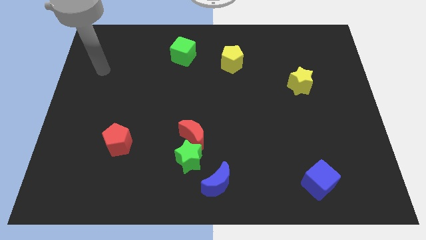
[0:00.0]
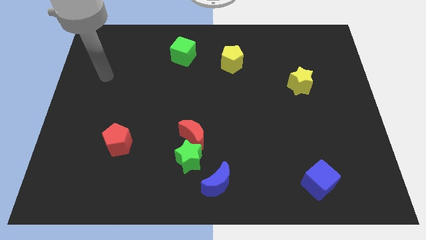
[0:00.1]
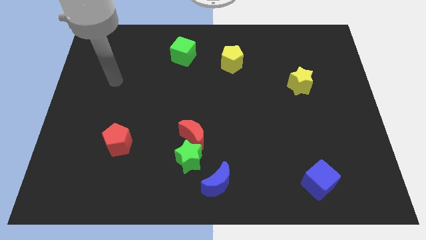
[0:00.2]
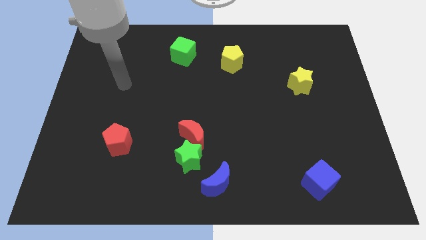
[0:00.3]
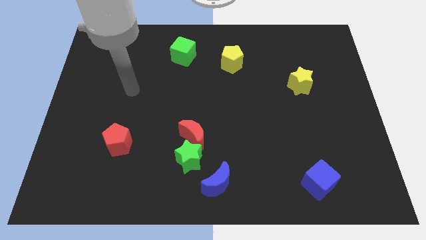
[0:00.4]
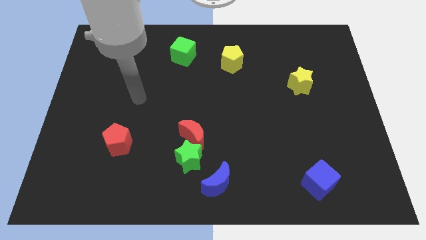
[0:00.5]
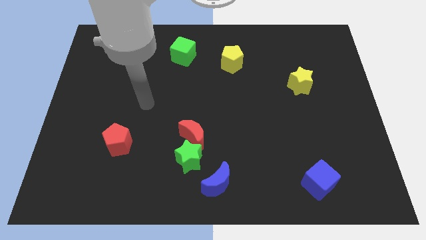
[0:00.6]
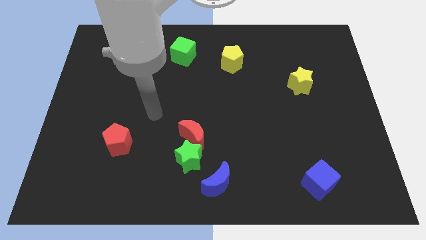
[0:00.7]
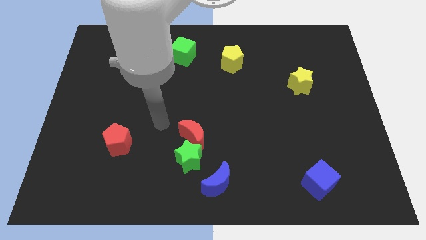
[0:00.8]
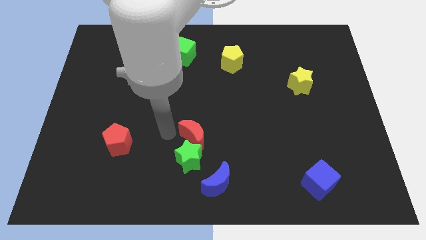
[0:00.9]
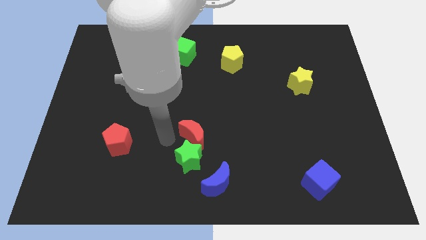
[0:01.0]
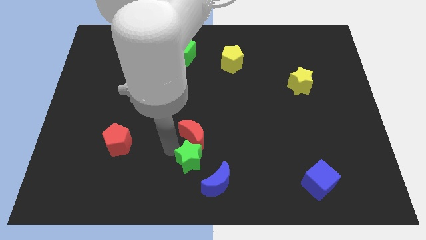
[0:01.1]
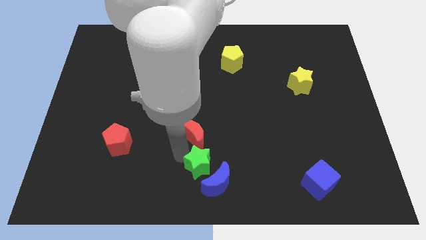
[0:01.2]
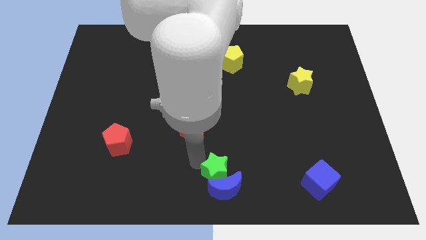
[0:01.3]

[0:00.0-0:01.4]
pull the red moon apart from the green star

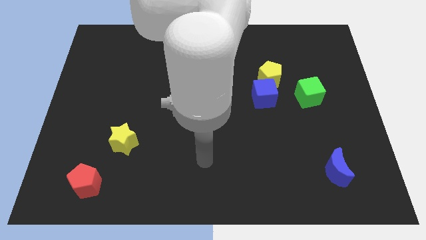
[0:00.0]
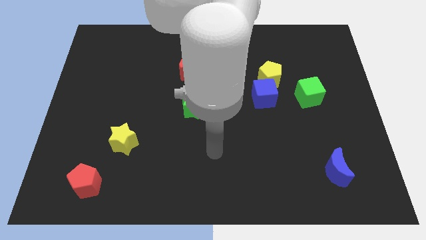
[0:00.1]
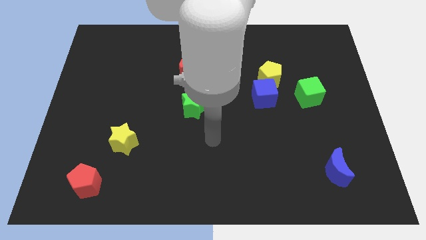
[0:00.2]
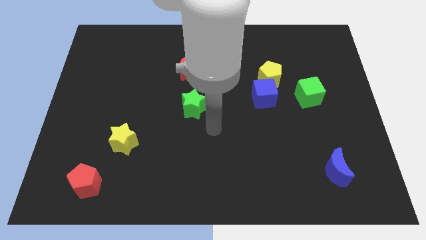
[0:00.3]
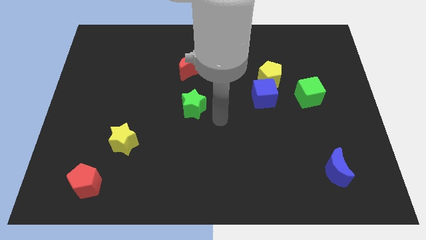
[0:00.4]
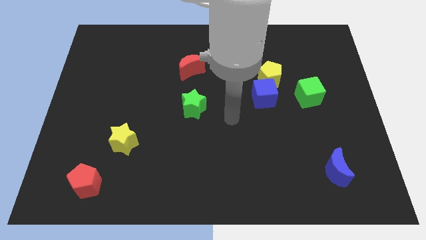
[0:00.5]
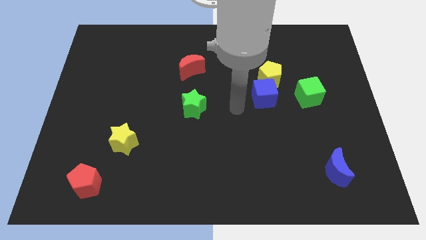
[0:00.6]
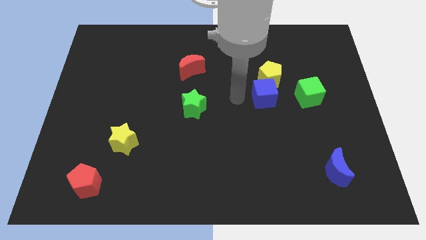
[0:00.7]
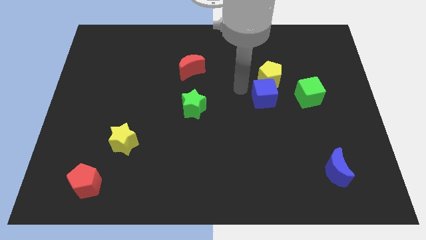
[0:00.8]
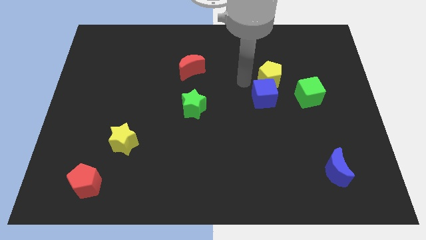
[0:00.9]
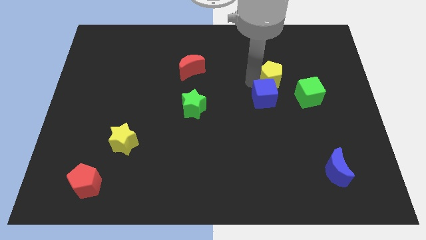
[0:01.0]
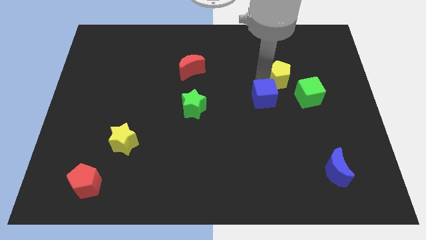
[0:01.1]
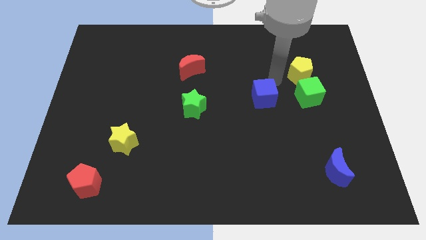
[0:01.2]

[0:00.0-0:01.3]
move the blue cube away from the yellow pentagon

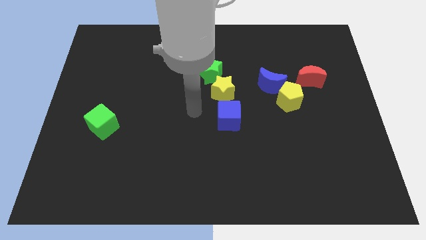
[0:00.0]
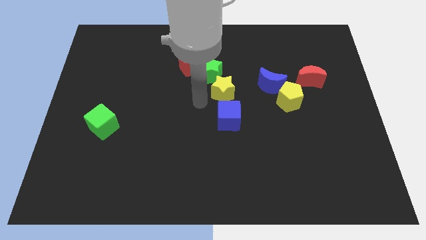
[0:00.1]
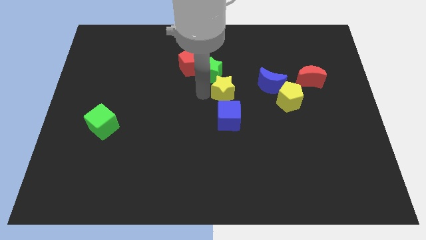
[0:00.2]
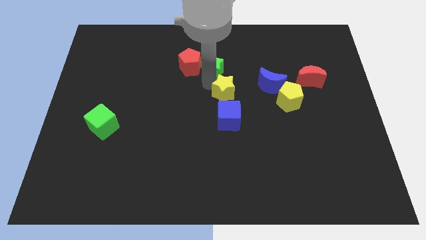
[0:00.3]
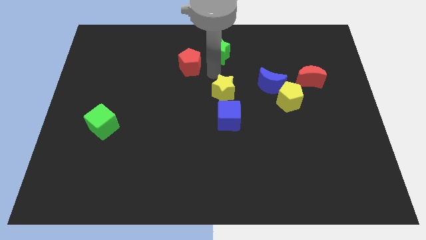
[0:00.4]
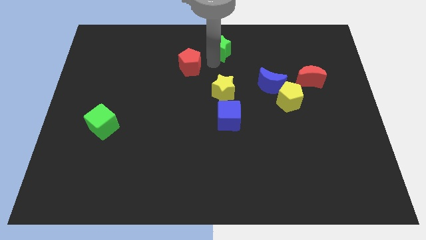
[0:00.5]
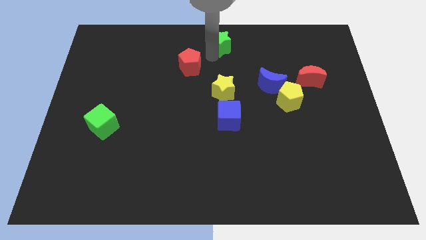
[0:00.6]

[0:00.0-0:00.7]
separate the red pentagon from the green star

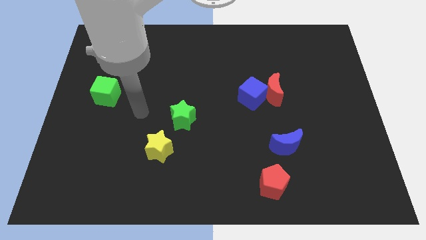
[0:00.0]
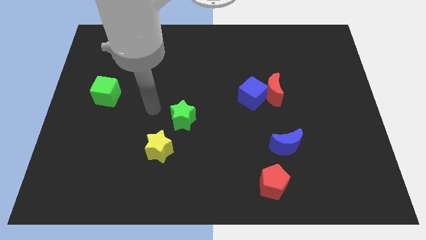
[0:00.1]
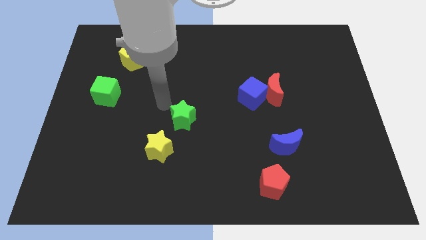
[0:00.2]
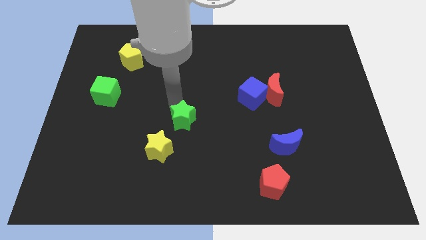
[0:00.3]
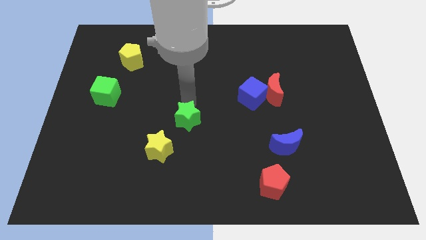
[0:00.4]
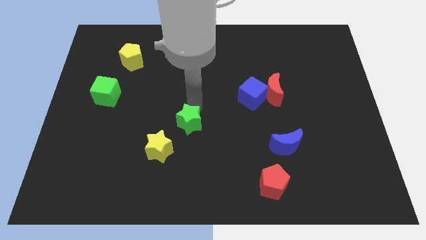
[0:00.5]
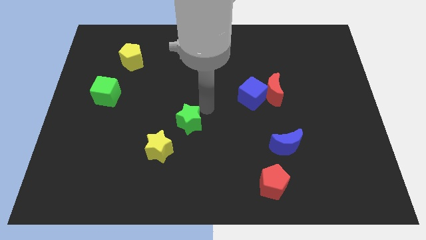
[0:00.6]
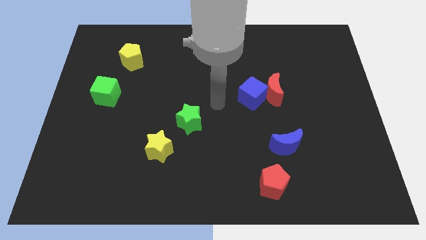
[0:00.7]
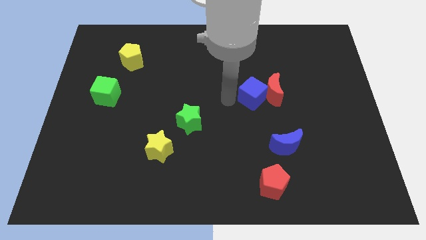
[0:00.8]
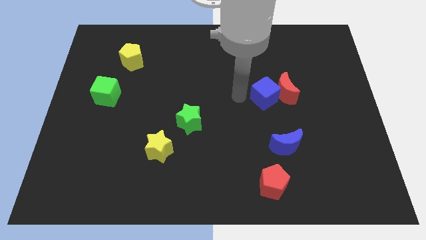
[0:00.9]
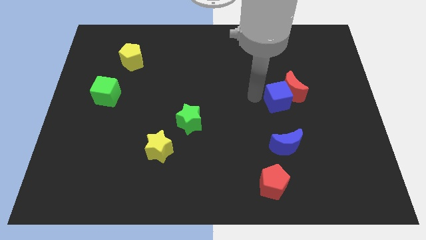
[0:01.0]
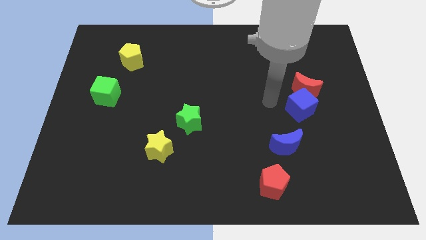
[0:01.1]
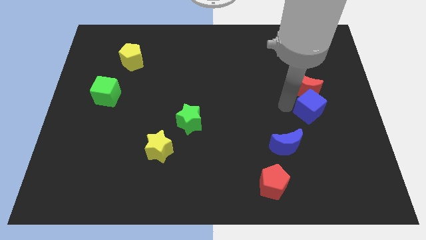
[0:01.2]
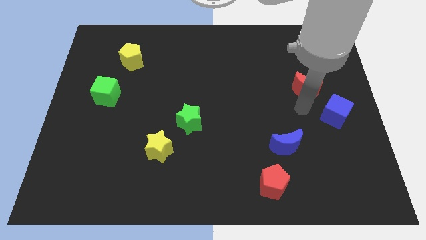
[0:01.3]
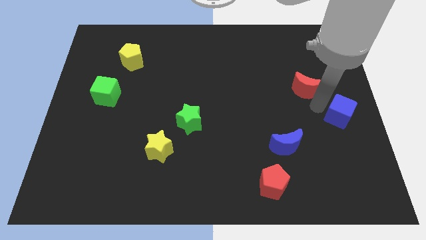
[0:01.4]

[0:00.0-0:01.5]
separate the red moon from the blue cube

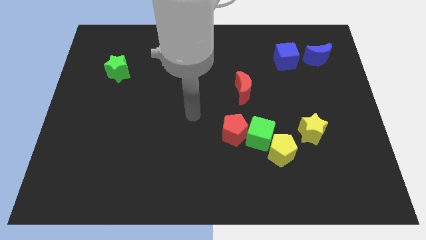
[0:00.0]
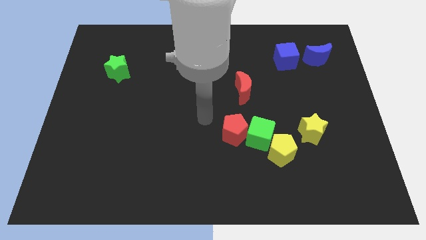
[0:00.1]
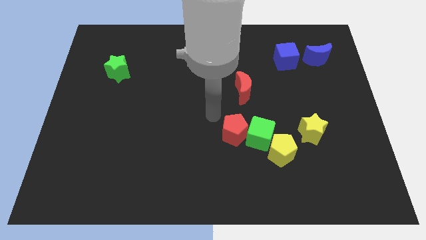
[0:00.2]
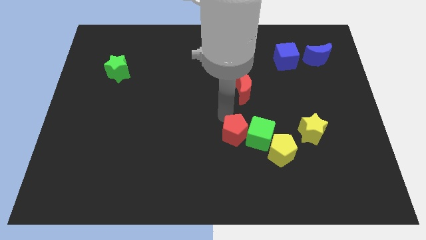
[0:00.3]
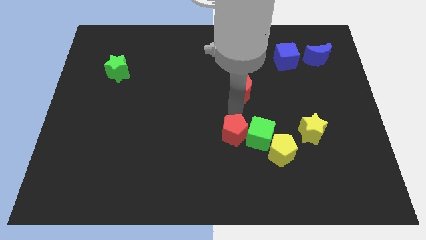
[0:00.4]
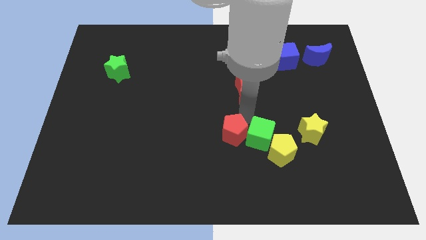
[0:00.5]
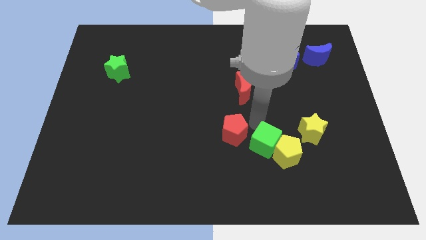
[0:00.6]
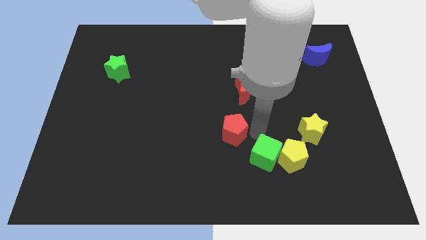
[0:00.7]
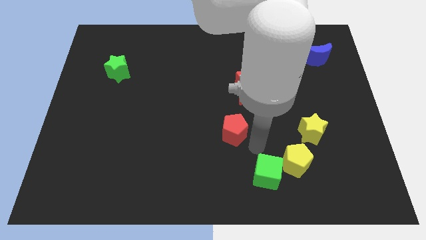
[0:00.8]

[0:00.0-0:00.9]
separate the red pentagon from the green cube

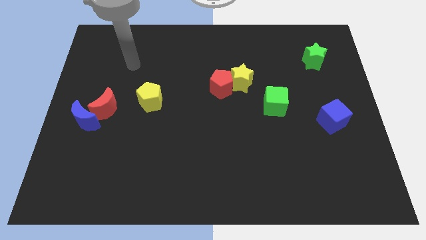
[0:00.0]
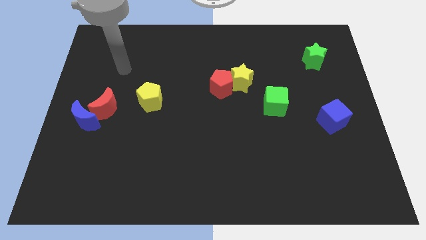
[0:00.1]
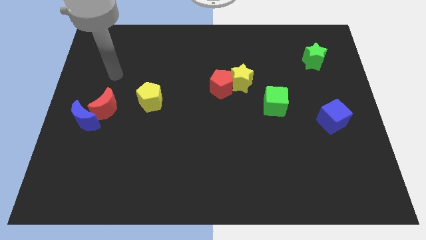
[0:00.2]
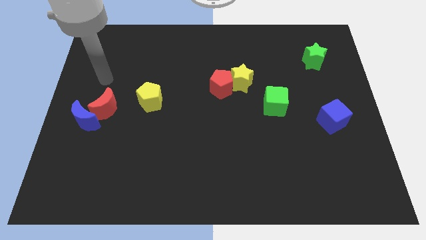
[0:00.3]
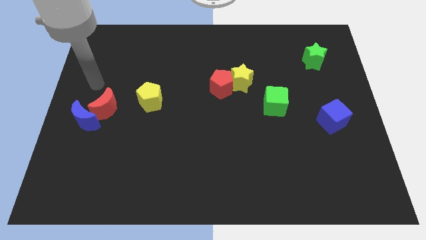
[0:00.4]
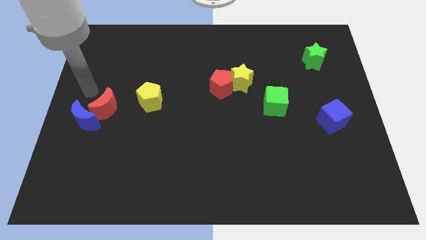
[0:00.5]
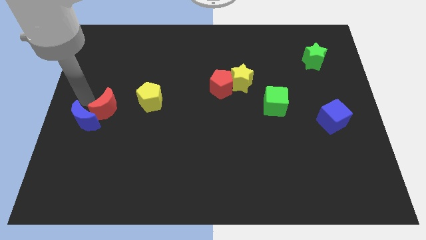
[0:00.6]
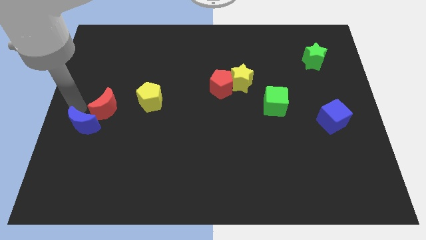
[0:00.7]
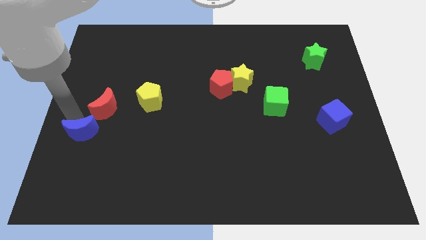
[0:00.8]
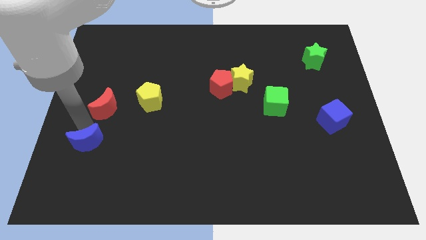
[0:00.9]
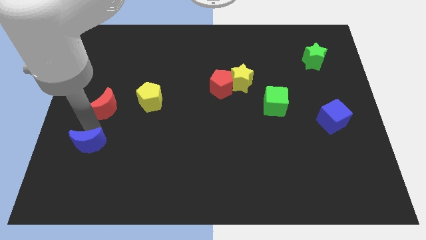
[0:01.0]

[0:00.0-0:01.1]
move the red moon away from the blue moon

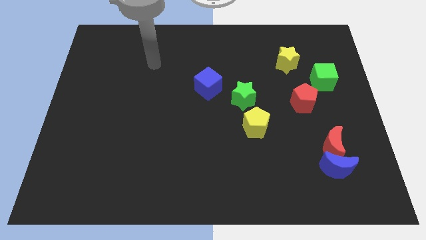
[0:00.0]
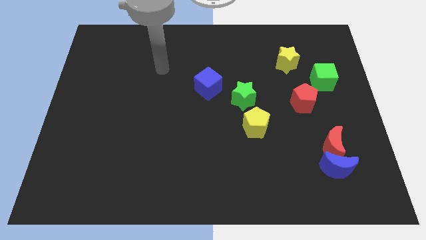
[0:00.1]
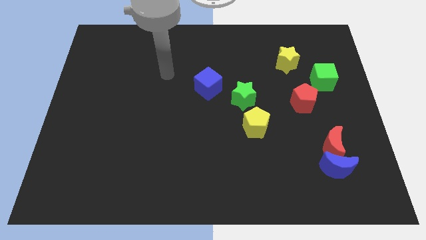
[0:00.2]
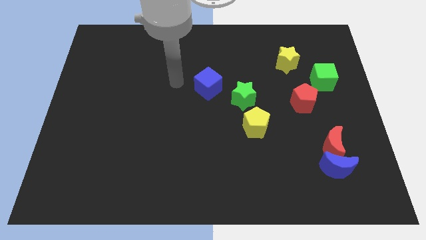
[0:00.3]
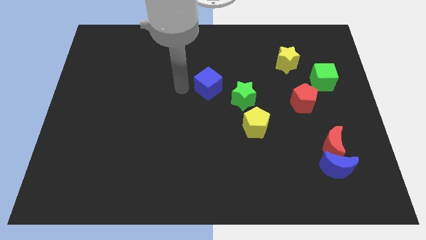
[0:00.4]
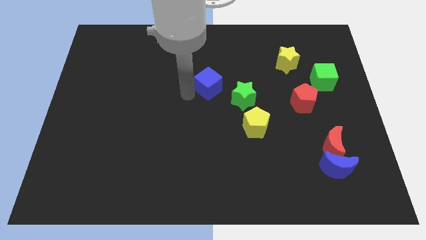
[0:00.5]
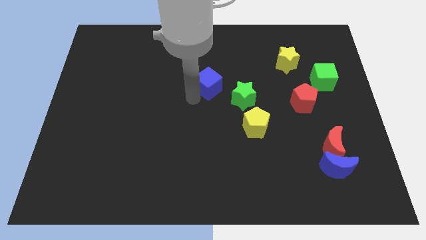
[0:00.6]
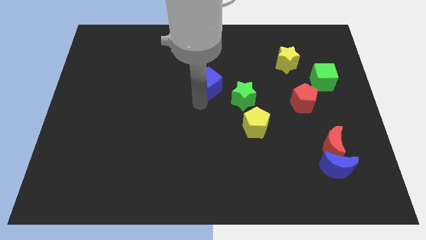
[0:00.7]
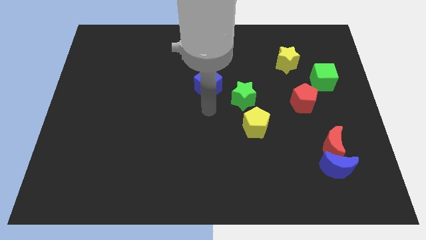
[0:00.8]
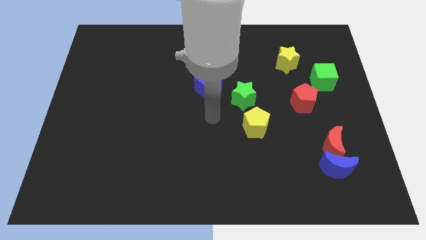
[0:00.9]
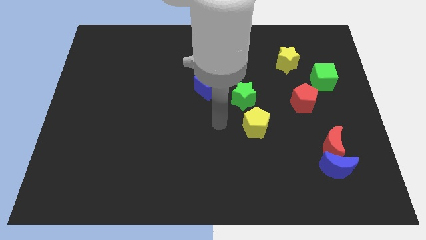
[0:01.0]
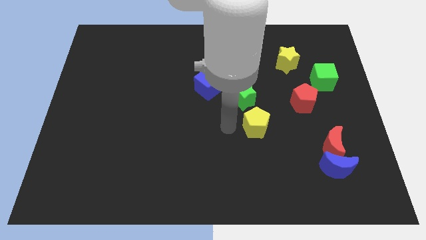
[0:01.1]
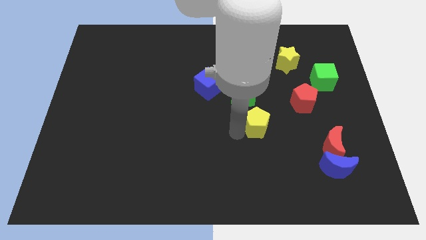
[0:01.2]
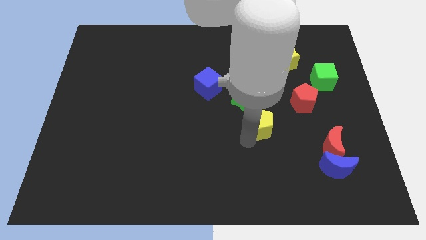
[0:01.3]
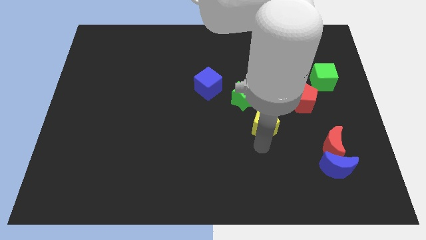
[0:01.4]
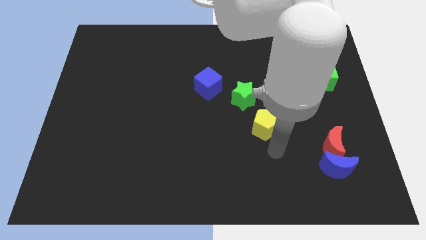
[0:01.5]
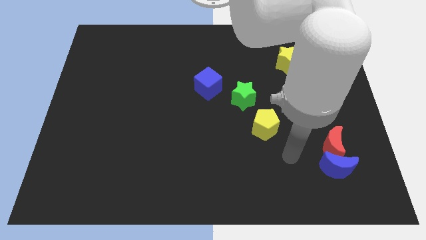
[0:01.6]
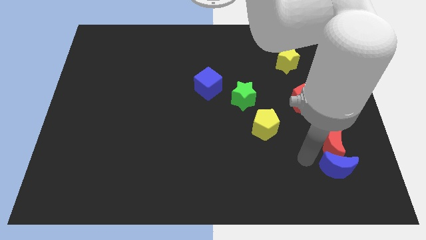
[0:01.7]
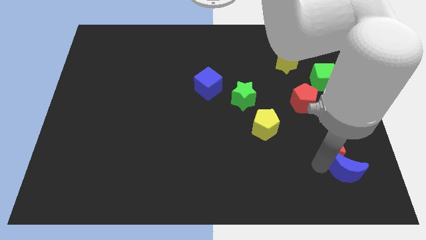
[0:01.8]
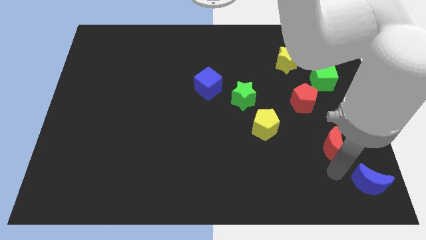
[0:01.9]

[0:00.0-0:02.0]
separate the red moon from the blue moon

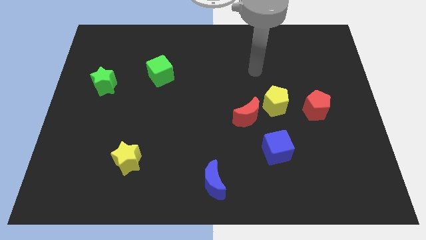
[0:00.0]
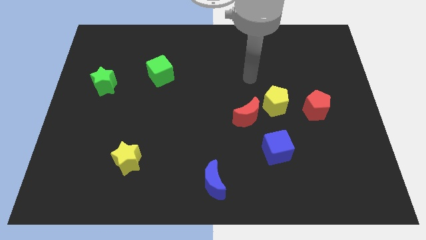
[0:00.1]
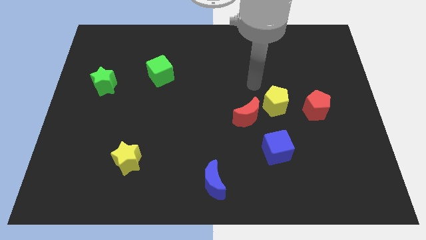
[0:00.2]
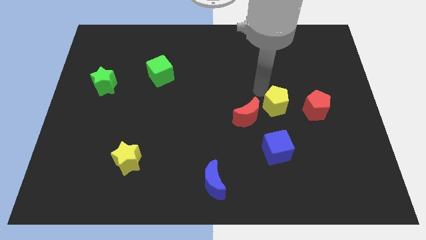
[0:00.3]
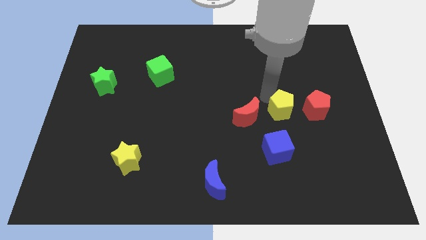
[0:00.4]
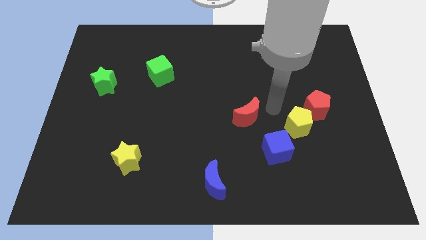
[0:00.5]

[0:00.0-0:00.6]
move the red moon away from the yellow pentagon
